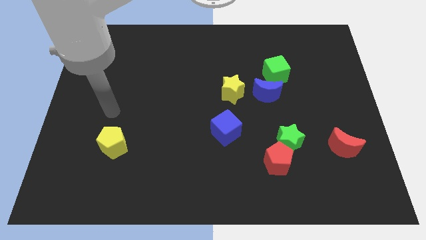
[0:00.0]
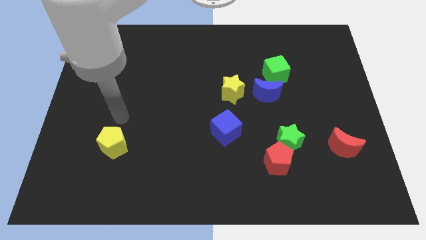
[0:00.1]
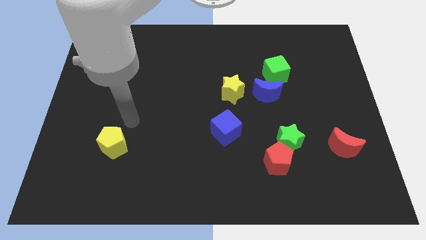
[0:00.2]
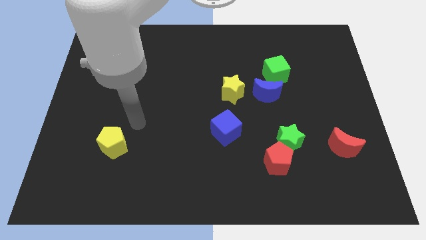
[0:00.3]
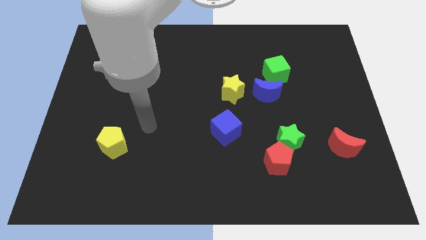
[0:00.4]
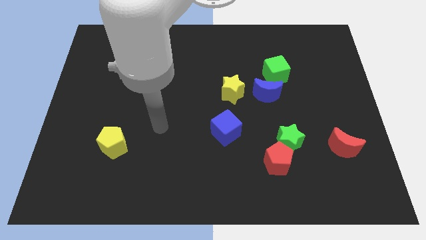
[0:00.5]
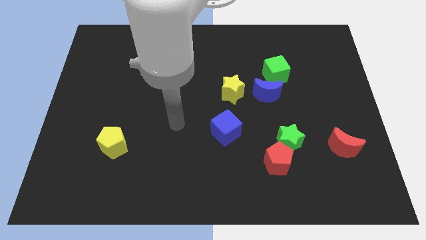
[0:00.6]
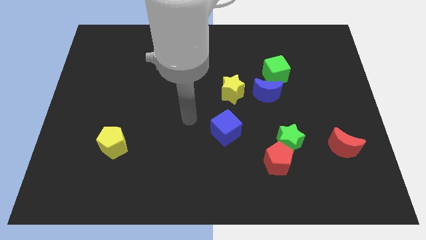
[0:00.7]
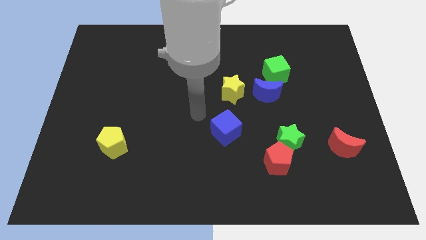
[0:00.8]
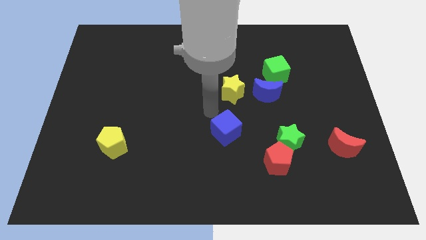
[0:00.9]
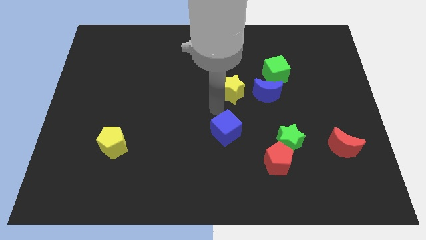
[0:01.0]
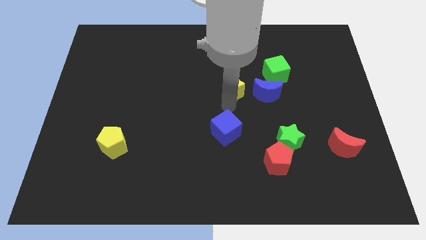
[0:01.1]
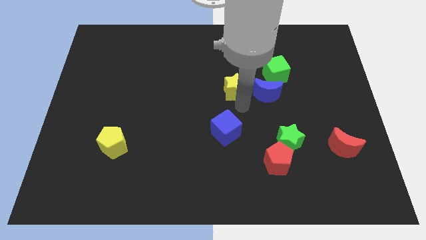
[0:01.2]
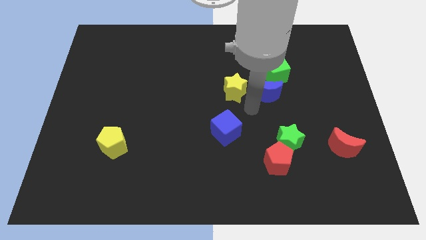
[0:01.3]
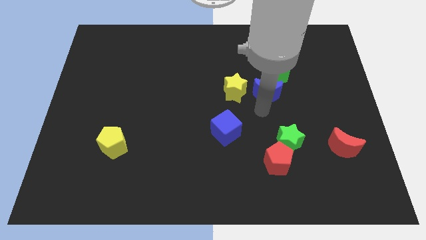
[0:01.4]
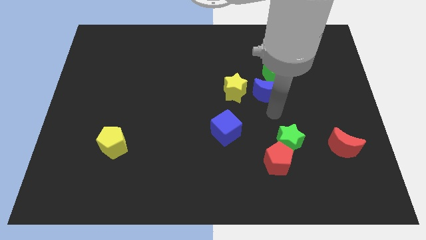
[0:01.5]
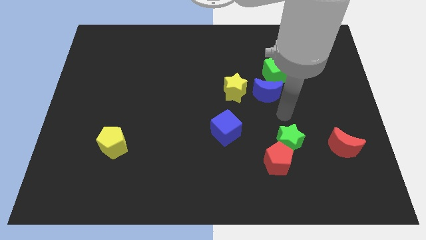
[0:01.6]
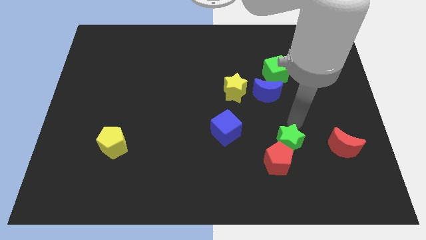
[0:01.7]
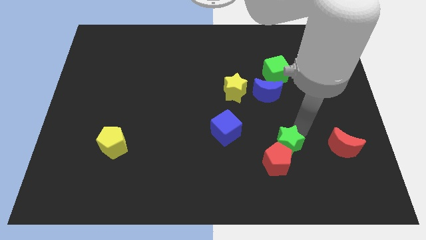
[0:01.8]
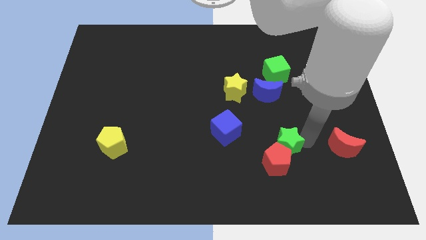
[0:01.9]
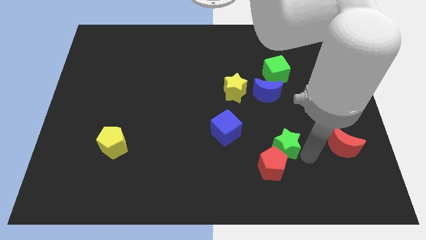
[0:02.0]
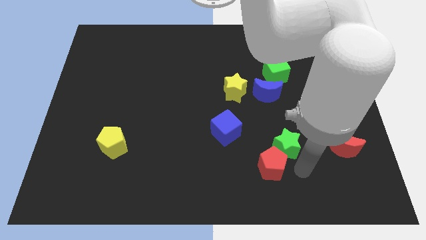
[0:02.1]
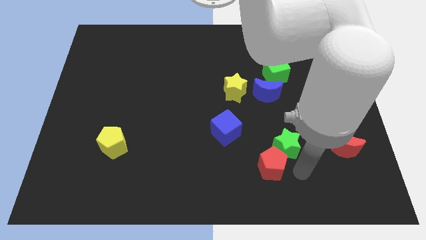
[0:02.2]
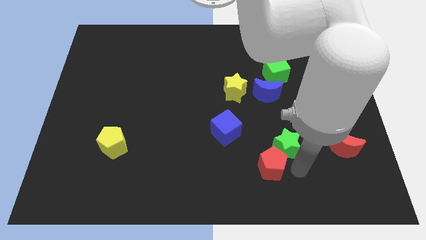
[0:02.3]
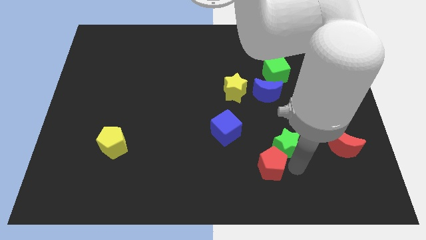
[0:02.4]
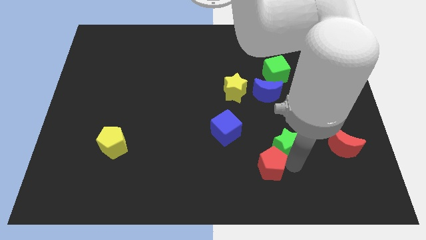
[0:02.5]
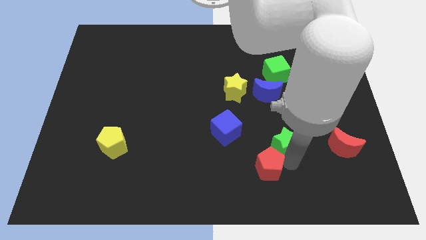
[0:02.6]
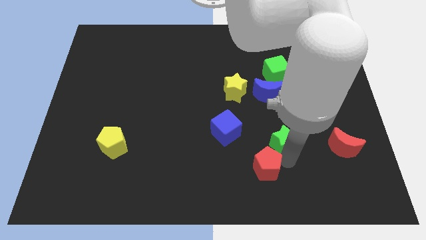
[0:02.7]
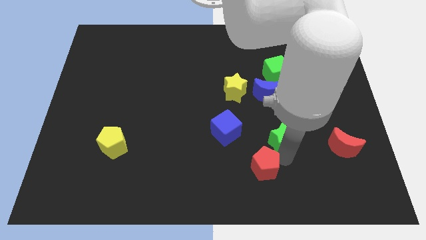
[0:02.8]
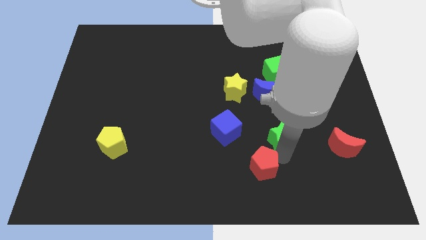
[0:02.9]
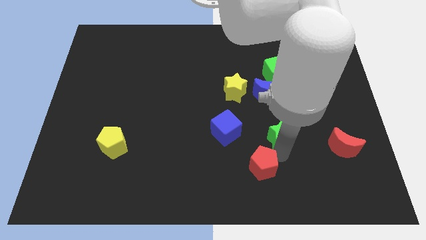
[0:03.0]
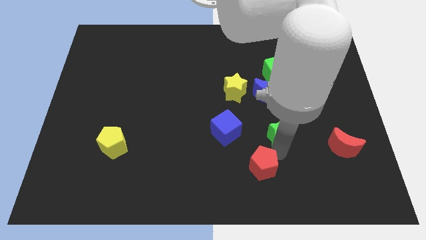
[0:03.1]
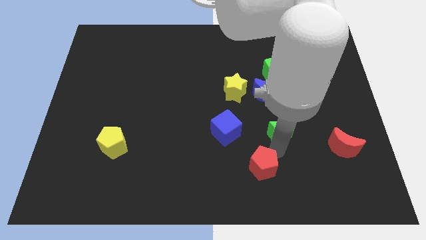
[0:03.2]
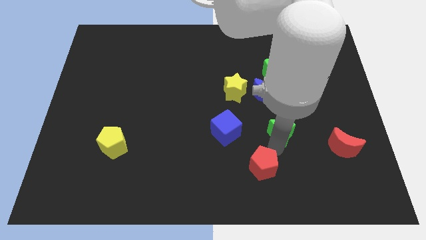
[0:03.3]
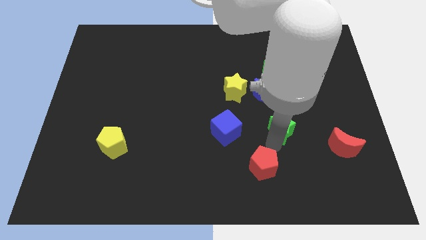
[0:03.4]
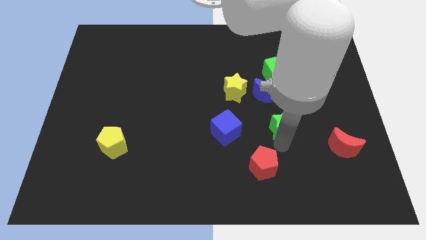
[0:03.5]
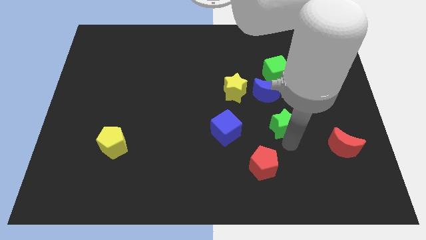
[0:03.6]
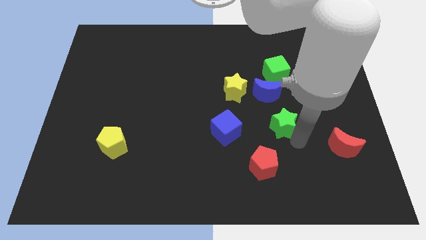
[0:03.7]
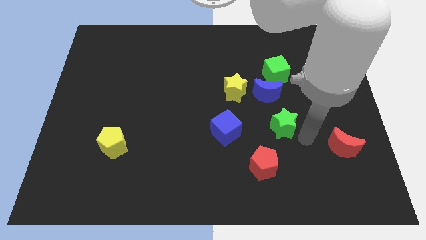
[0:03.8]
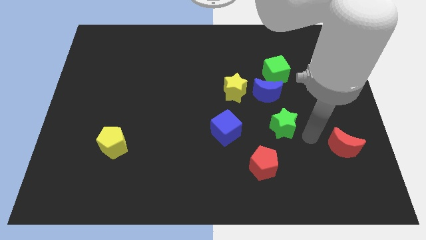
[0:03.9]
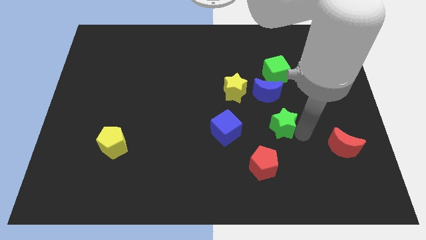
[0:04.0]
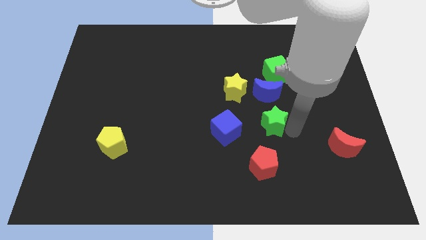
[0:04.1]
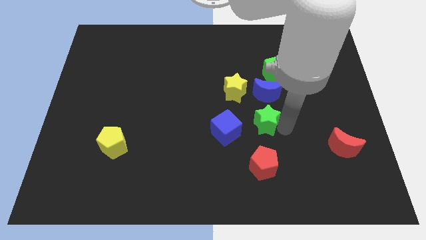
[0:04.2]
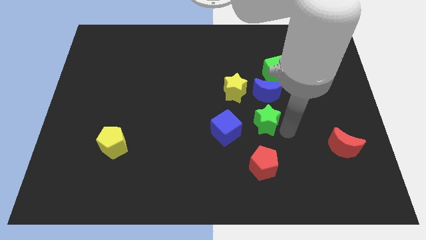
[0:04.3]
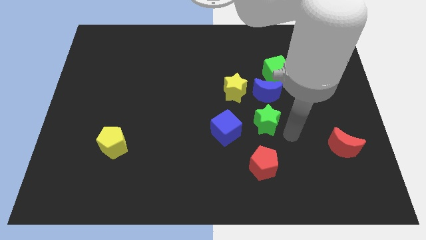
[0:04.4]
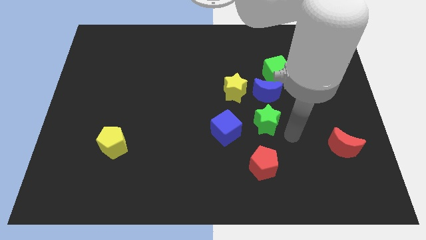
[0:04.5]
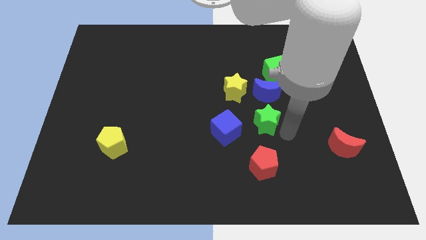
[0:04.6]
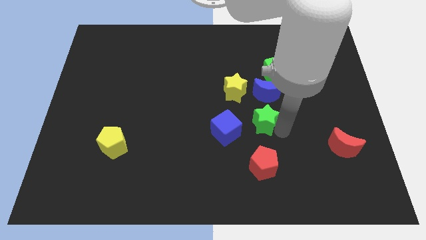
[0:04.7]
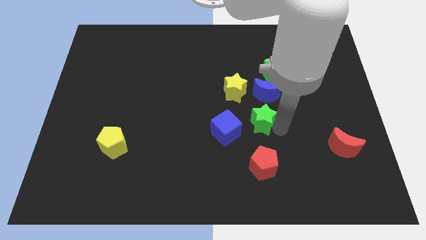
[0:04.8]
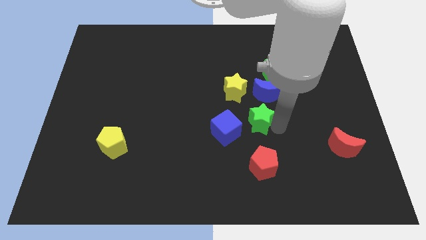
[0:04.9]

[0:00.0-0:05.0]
slide the green star to the center

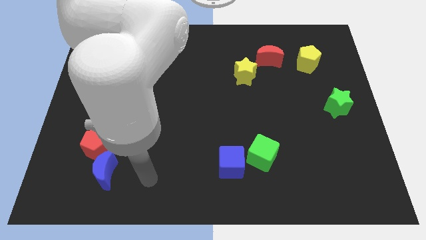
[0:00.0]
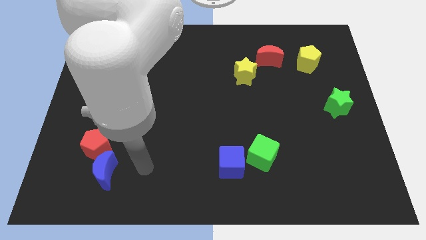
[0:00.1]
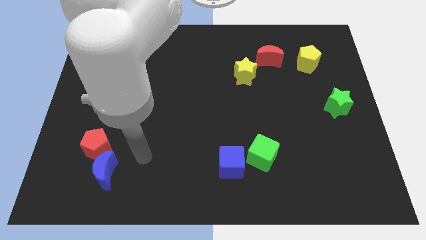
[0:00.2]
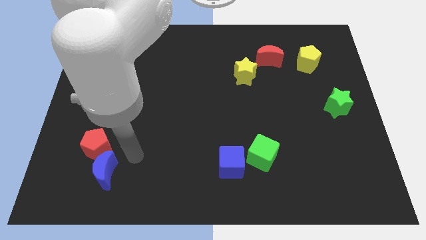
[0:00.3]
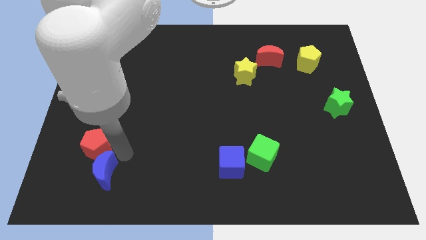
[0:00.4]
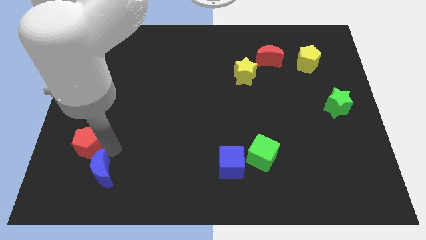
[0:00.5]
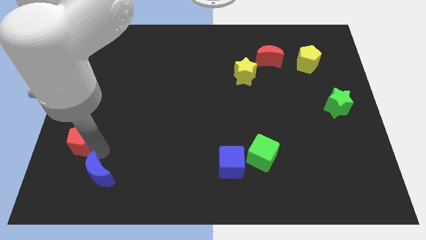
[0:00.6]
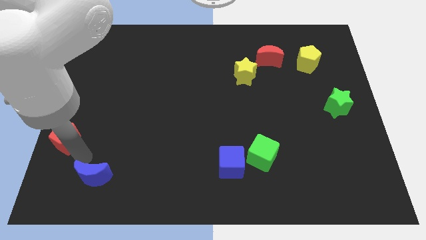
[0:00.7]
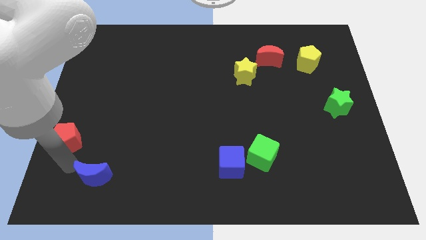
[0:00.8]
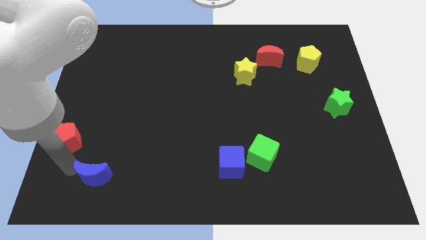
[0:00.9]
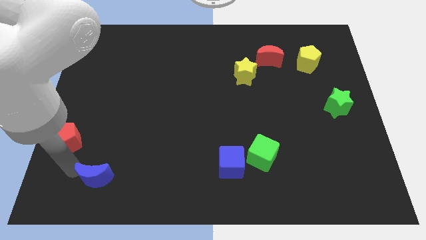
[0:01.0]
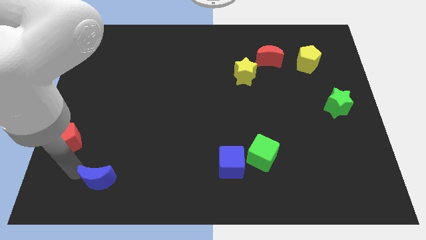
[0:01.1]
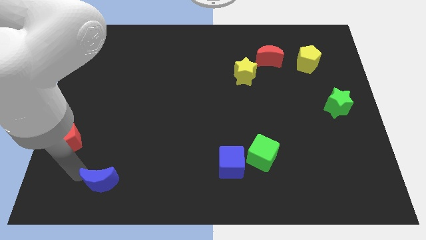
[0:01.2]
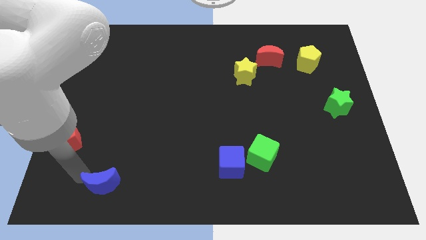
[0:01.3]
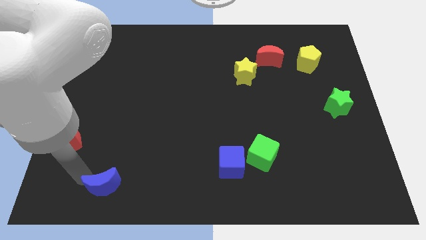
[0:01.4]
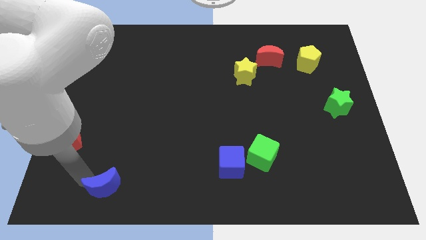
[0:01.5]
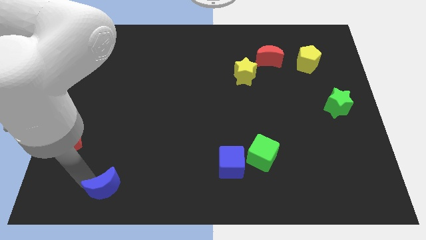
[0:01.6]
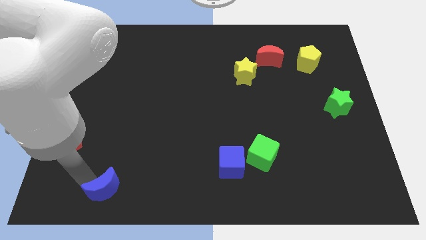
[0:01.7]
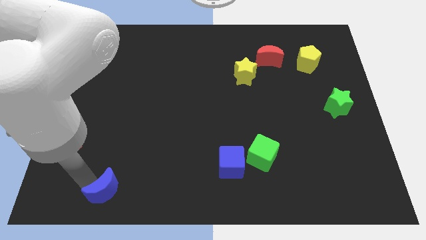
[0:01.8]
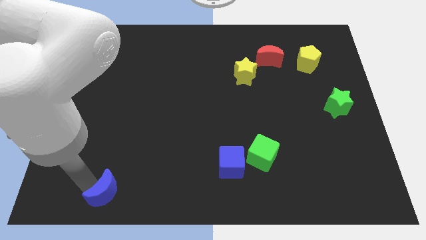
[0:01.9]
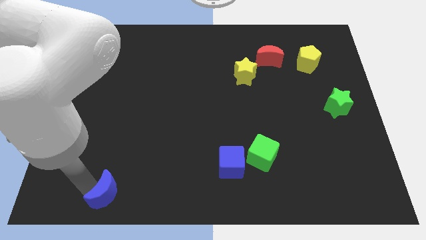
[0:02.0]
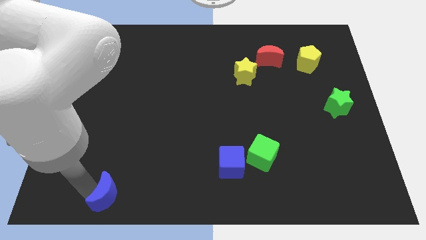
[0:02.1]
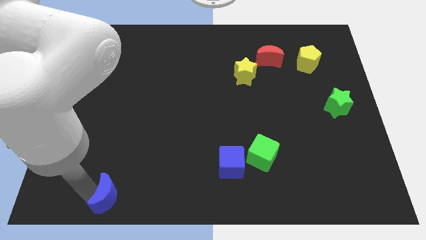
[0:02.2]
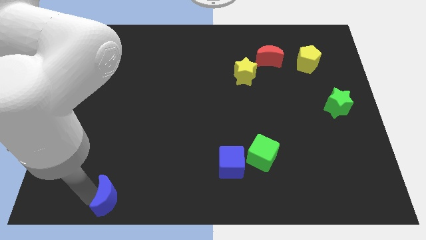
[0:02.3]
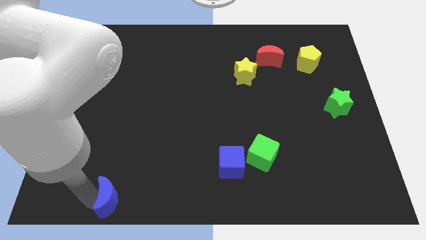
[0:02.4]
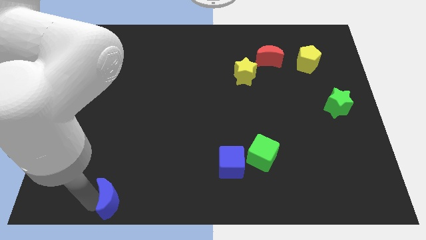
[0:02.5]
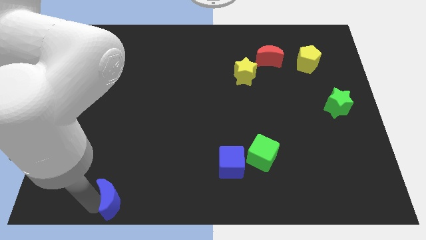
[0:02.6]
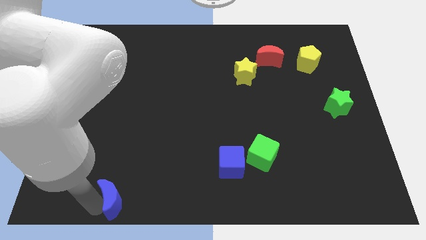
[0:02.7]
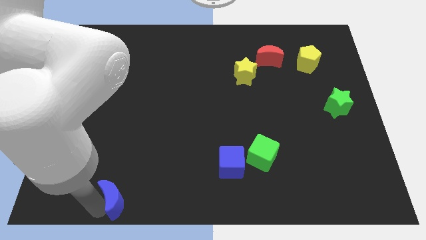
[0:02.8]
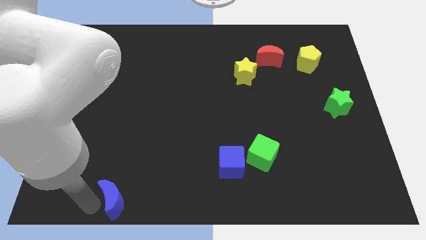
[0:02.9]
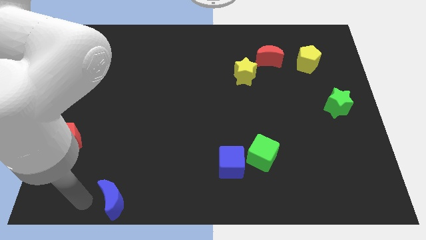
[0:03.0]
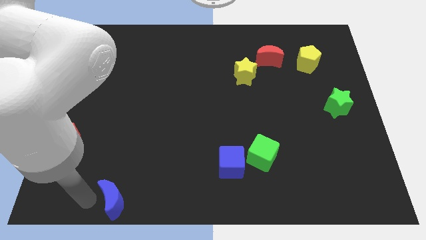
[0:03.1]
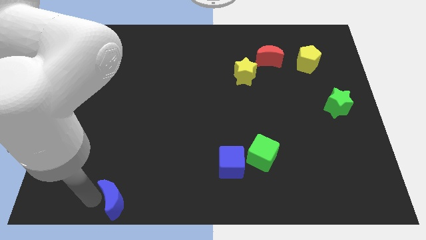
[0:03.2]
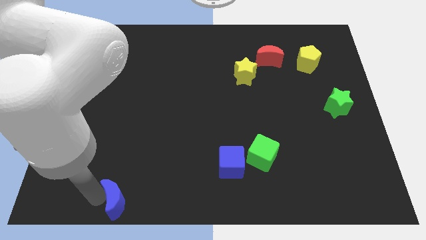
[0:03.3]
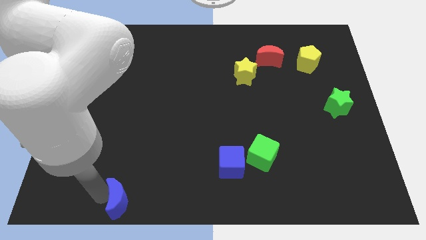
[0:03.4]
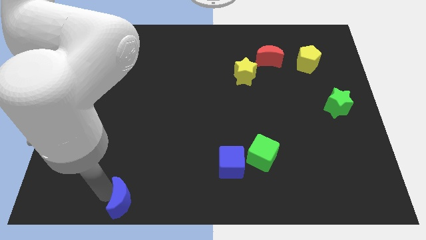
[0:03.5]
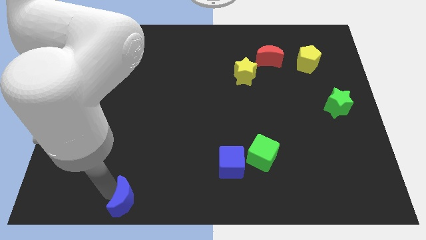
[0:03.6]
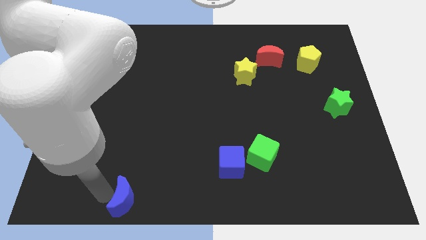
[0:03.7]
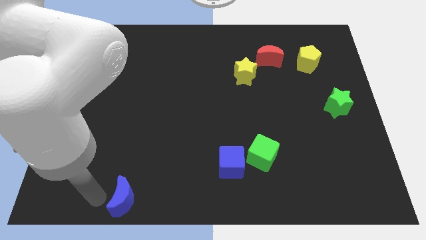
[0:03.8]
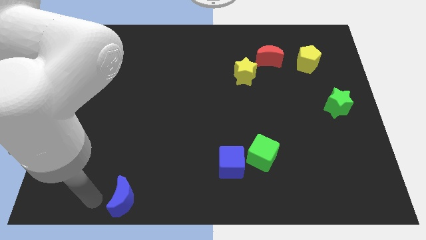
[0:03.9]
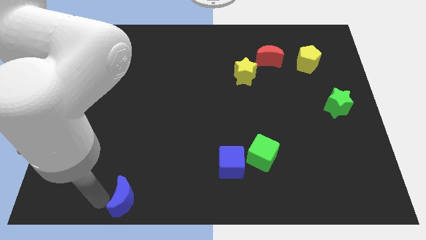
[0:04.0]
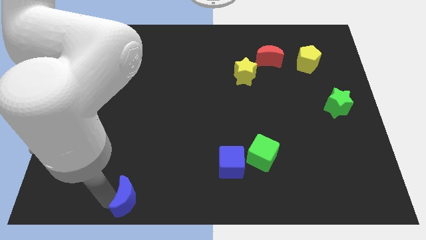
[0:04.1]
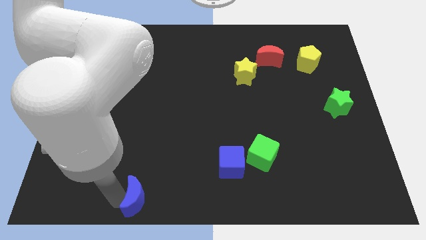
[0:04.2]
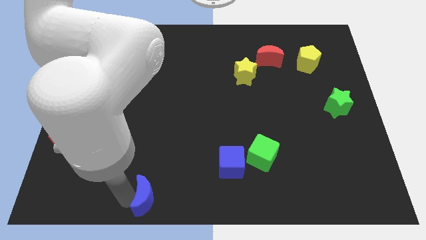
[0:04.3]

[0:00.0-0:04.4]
move the blue moon to the bottom side
